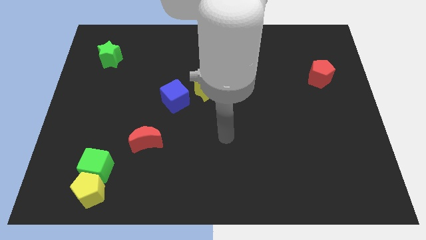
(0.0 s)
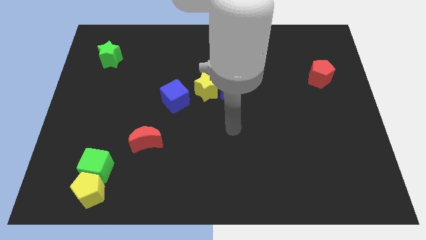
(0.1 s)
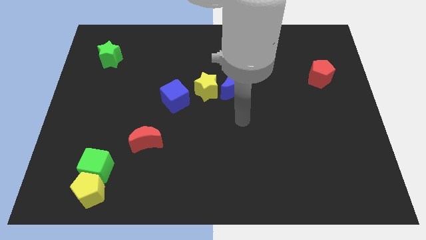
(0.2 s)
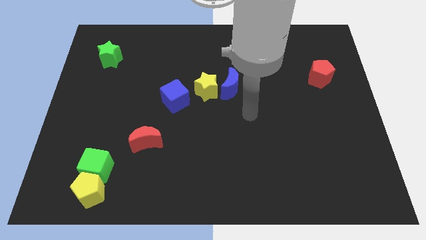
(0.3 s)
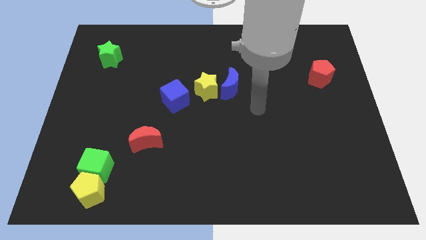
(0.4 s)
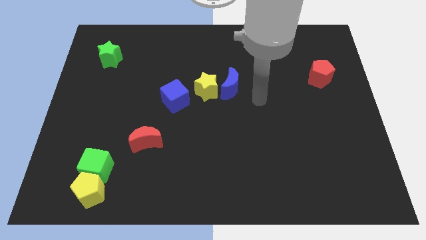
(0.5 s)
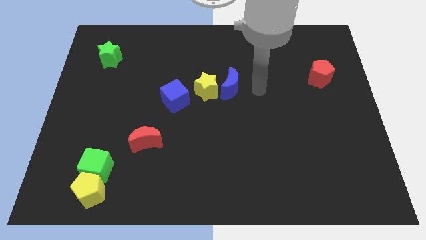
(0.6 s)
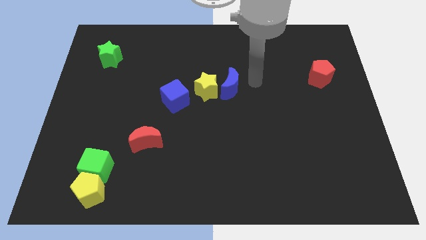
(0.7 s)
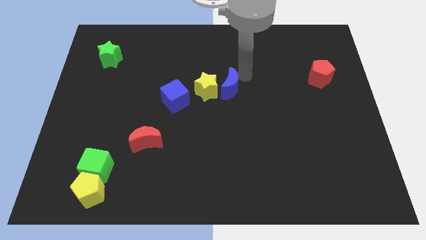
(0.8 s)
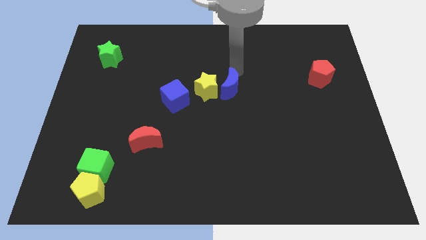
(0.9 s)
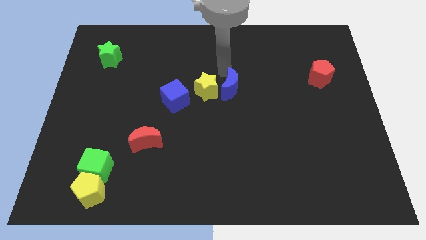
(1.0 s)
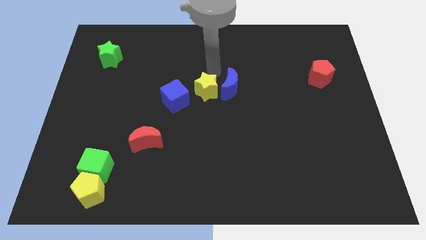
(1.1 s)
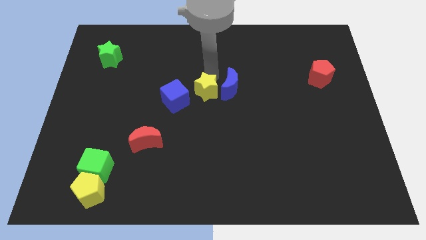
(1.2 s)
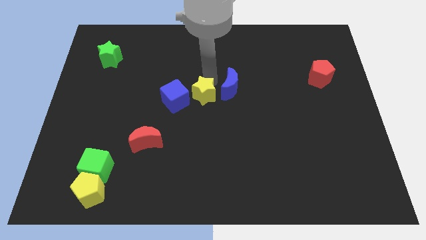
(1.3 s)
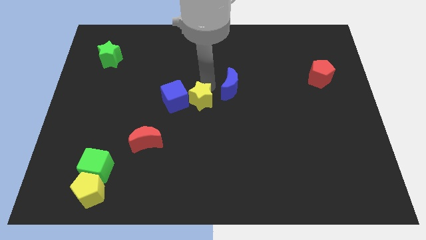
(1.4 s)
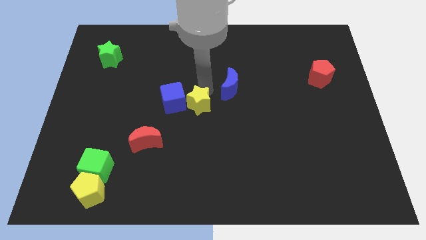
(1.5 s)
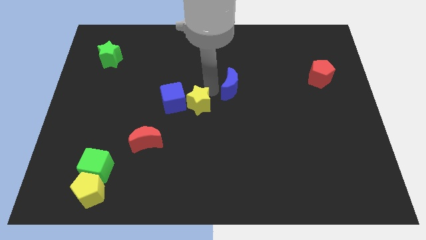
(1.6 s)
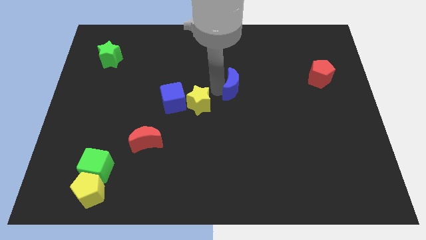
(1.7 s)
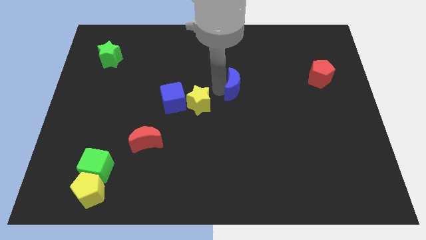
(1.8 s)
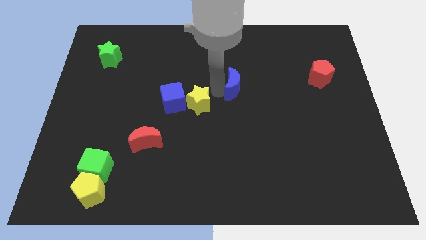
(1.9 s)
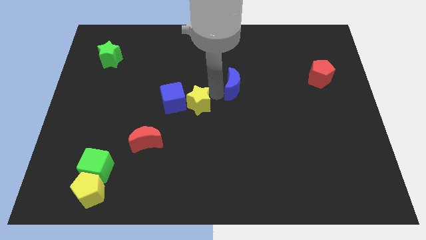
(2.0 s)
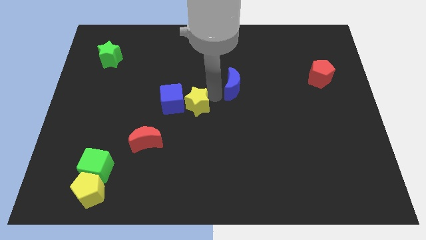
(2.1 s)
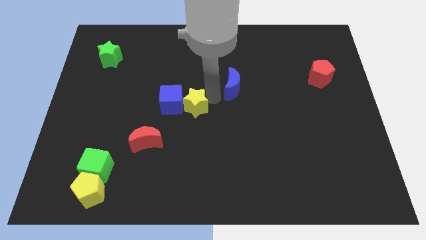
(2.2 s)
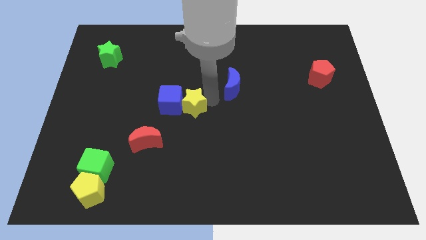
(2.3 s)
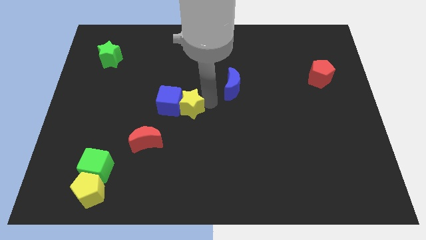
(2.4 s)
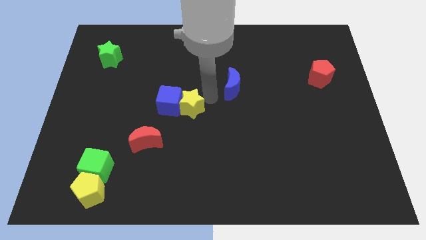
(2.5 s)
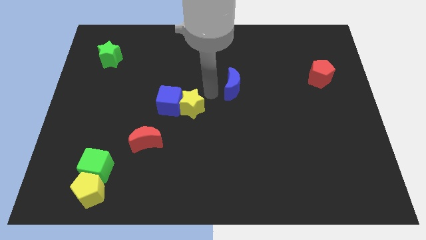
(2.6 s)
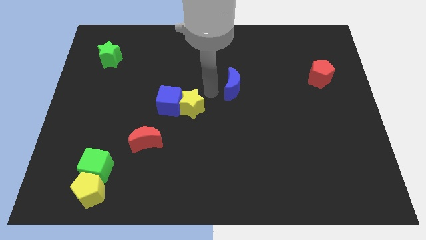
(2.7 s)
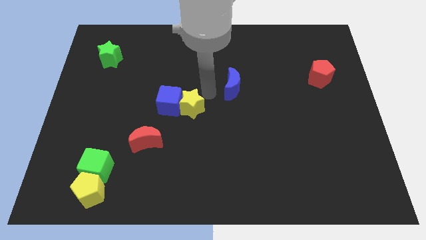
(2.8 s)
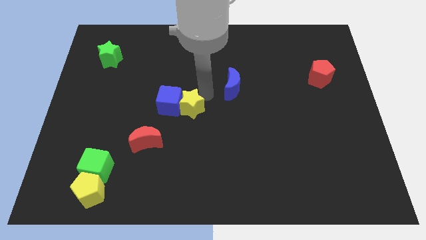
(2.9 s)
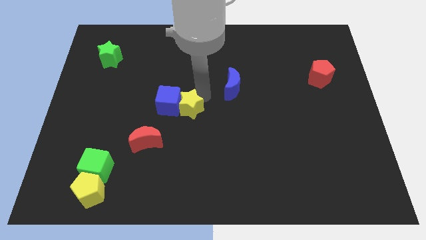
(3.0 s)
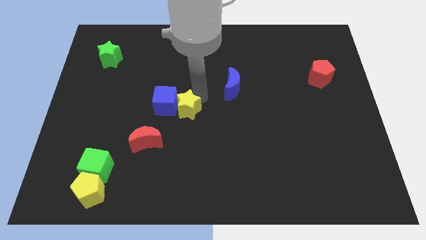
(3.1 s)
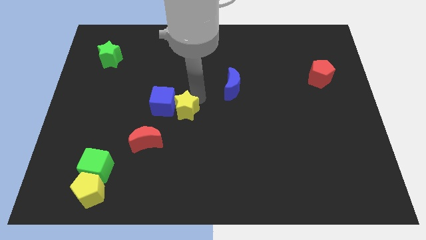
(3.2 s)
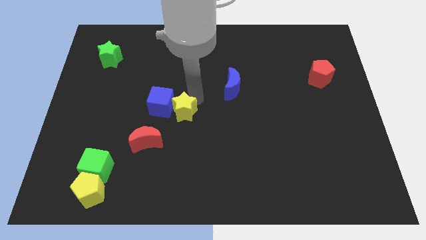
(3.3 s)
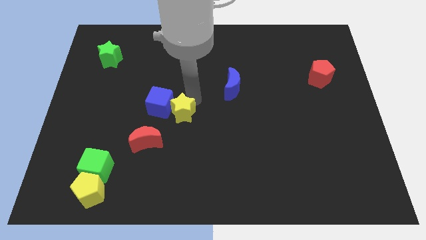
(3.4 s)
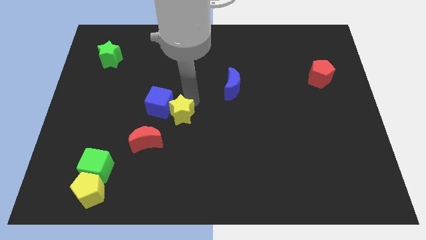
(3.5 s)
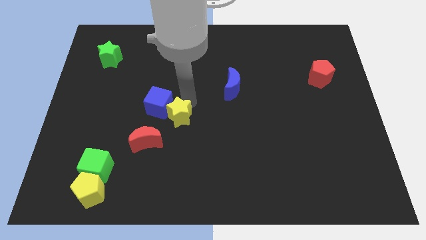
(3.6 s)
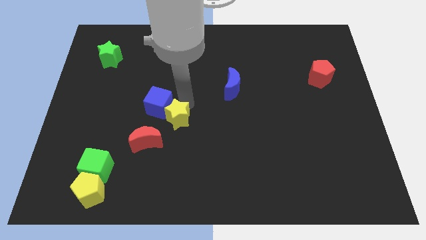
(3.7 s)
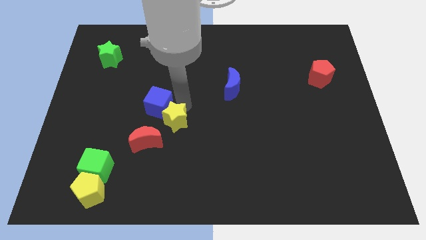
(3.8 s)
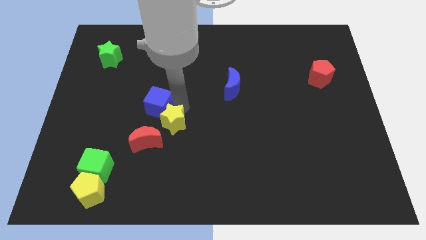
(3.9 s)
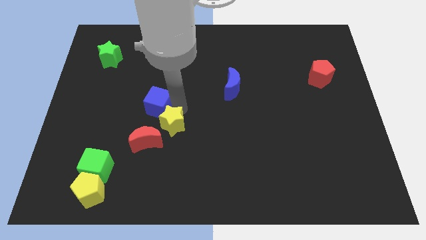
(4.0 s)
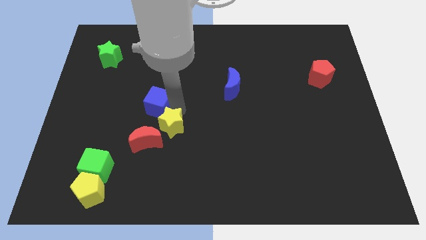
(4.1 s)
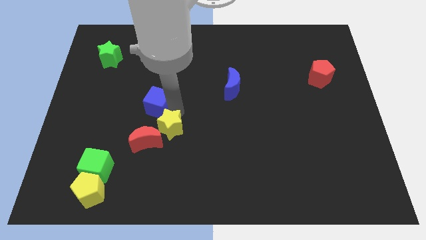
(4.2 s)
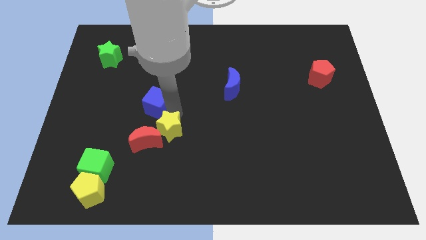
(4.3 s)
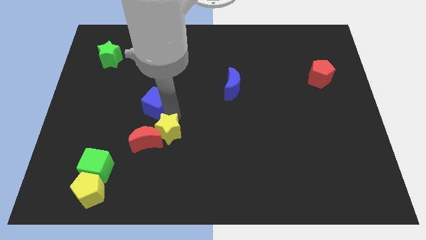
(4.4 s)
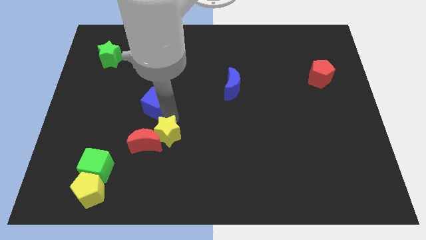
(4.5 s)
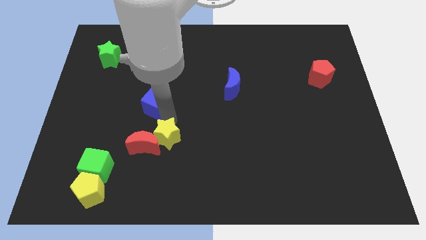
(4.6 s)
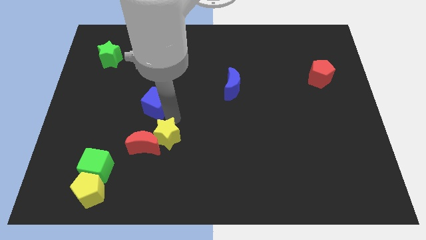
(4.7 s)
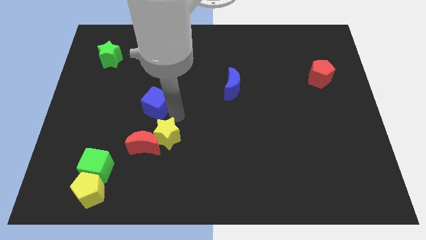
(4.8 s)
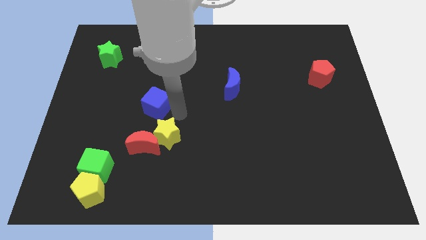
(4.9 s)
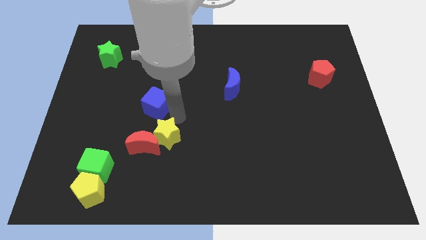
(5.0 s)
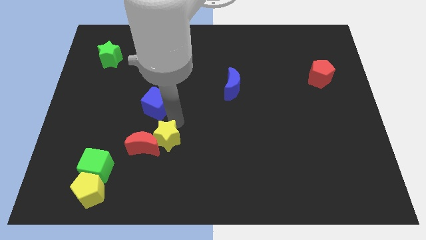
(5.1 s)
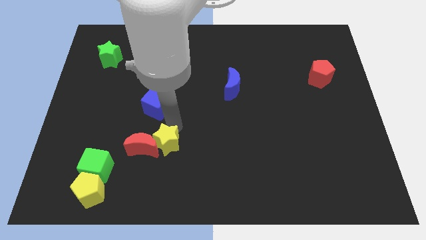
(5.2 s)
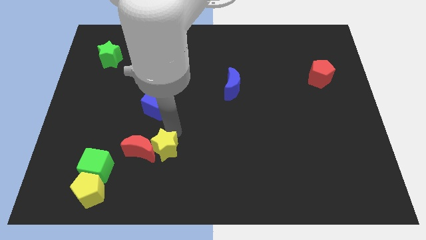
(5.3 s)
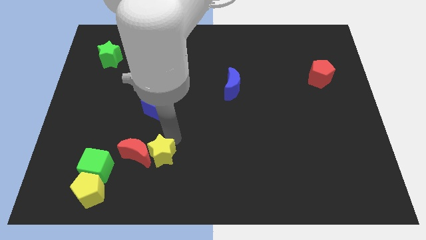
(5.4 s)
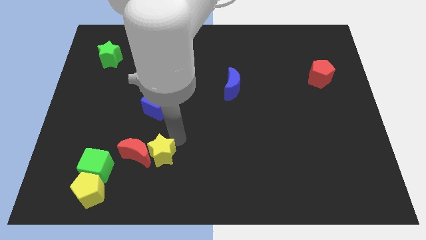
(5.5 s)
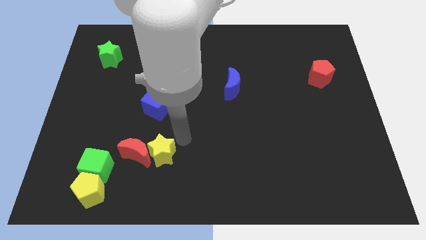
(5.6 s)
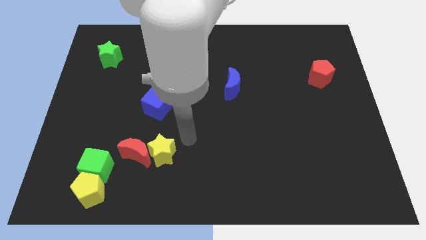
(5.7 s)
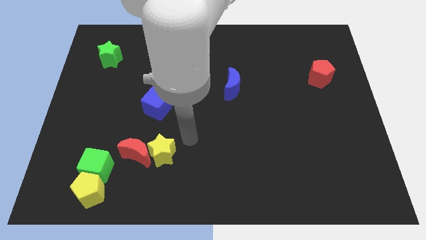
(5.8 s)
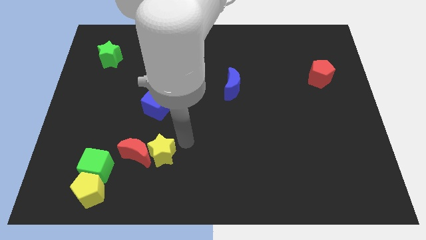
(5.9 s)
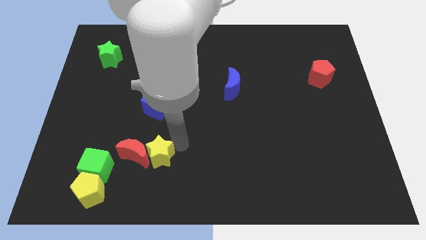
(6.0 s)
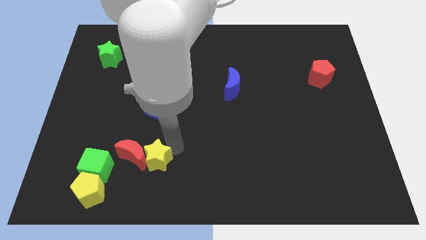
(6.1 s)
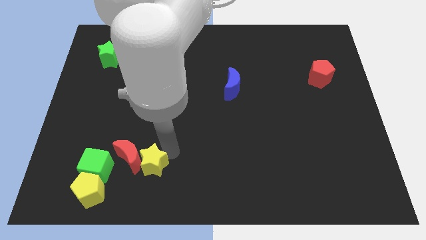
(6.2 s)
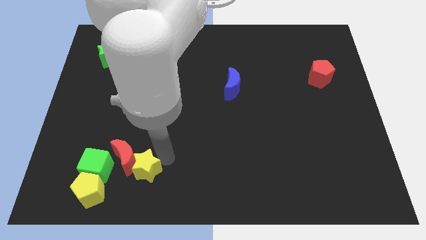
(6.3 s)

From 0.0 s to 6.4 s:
move the yellow star diagonally up and to the right of the yellow pentagon
